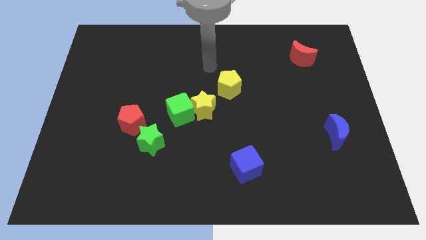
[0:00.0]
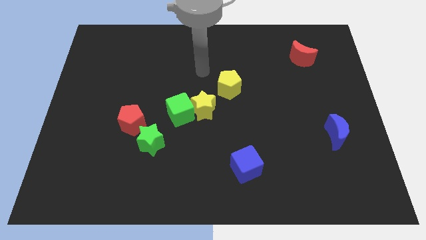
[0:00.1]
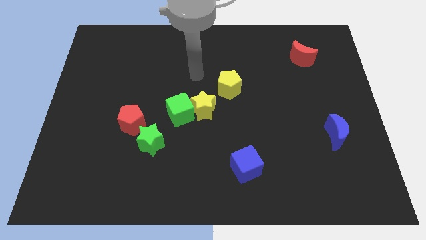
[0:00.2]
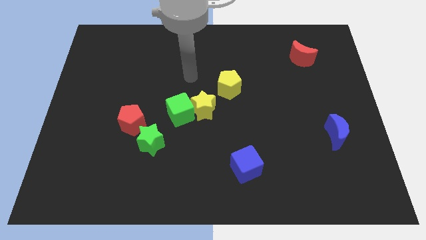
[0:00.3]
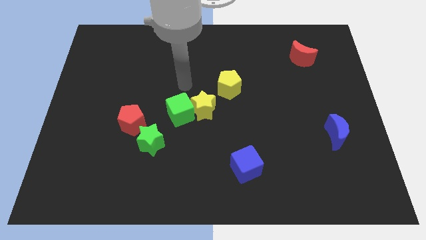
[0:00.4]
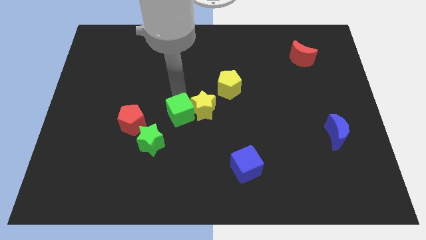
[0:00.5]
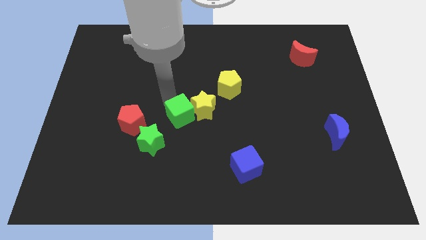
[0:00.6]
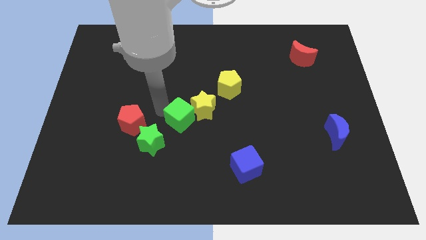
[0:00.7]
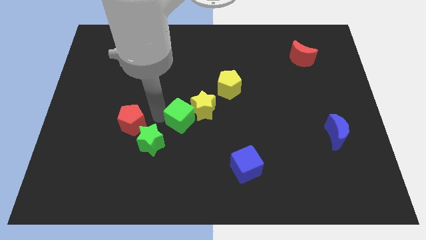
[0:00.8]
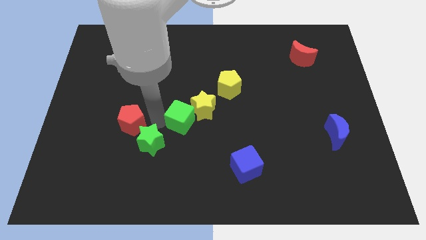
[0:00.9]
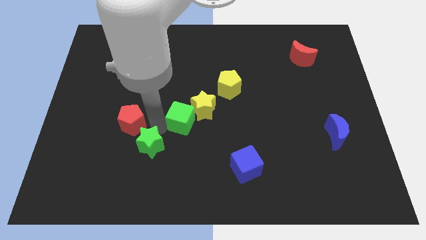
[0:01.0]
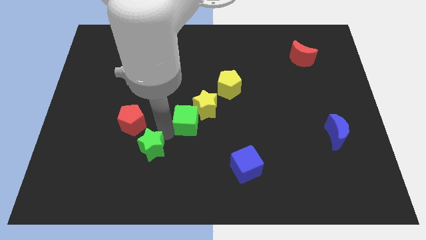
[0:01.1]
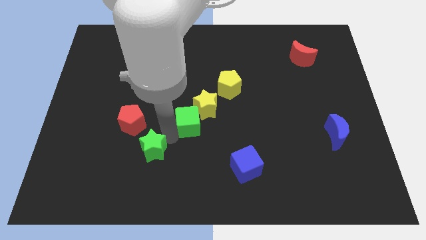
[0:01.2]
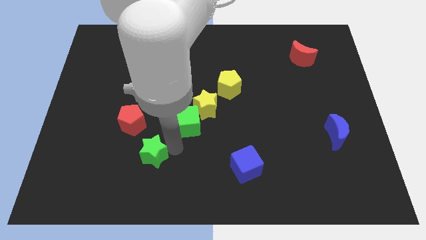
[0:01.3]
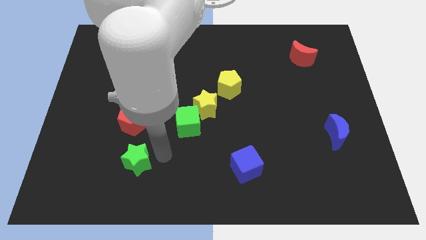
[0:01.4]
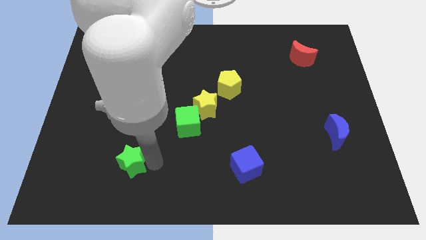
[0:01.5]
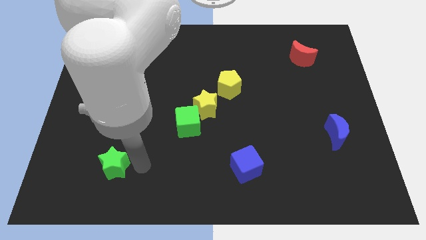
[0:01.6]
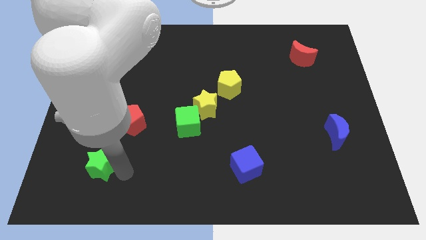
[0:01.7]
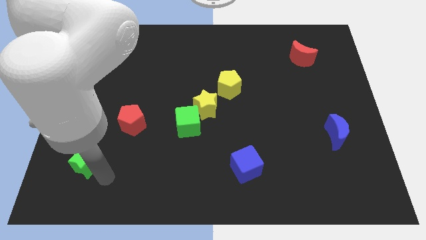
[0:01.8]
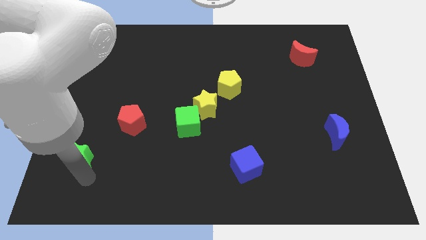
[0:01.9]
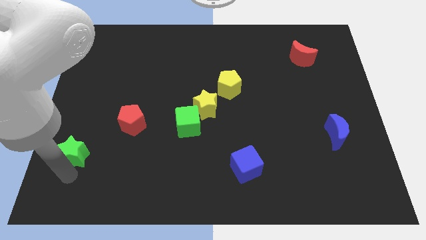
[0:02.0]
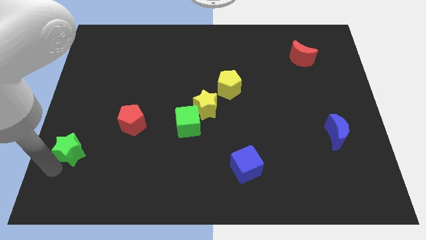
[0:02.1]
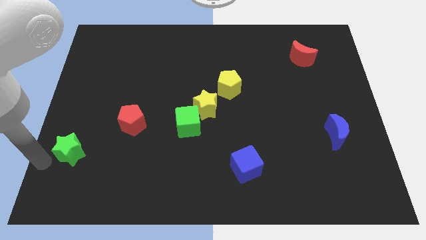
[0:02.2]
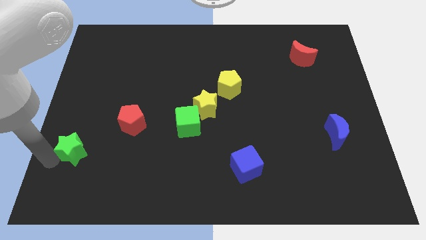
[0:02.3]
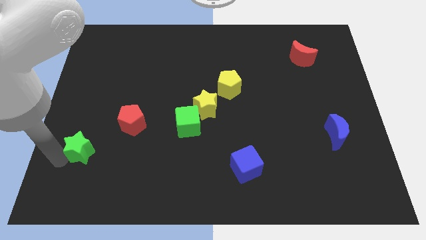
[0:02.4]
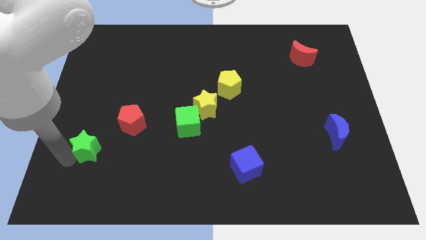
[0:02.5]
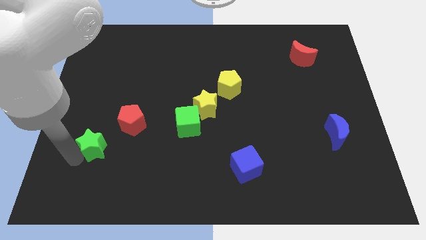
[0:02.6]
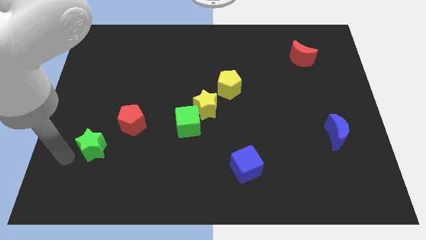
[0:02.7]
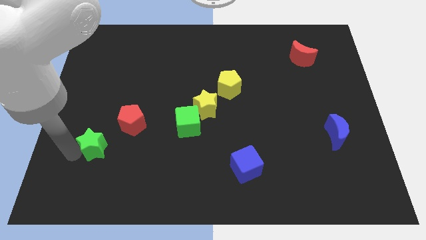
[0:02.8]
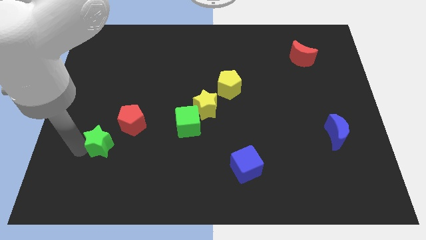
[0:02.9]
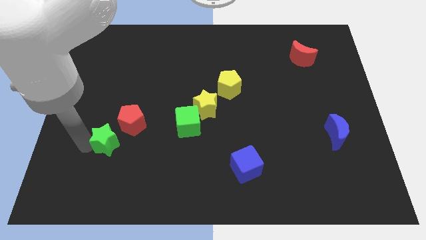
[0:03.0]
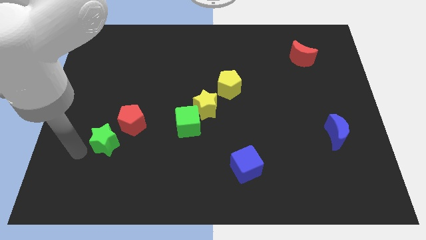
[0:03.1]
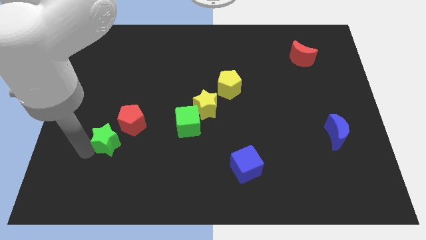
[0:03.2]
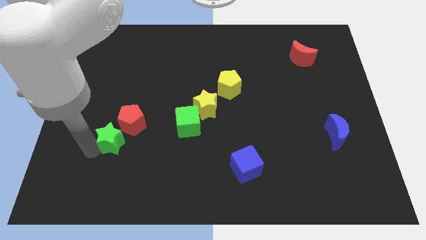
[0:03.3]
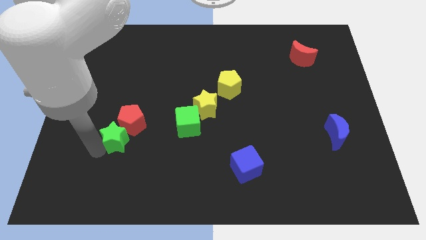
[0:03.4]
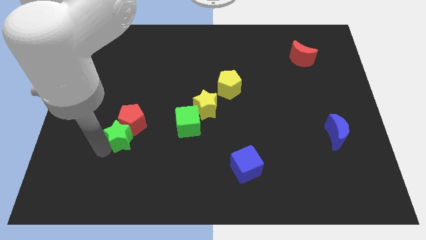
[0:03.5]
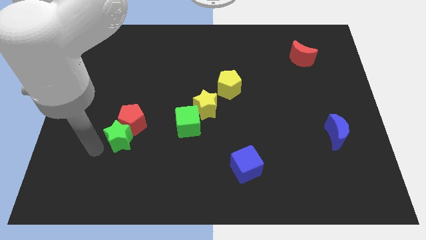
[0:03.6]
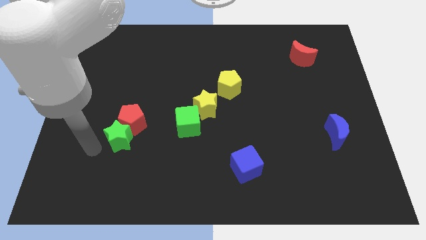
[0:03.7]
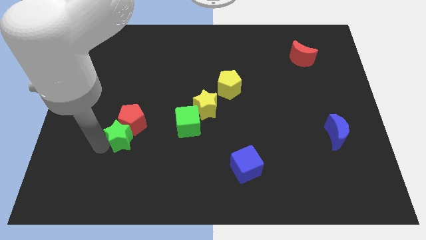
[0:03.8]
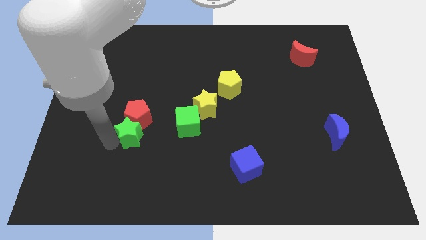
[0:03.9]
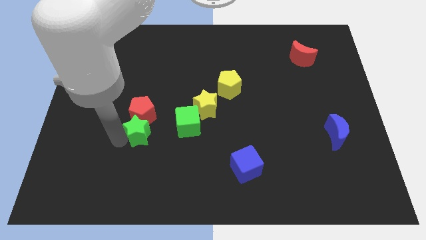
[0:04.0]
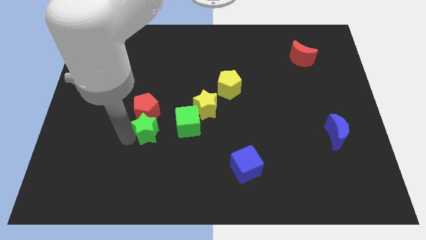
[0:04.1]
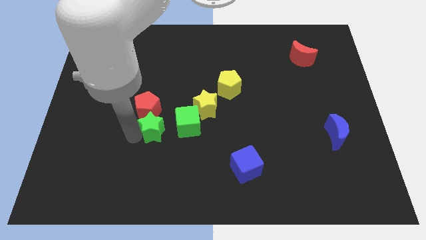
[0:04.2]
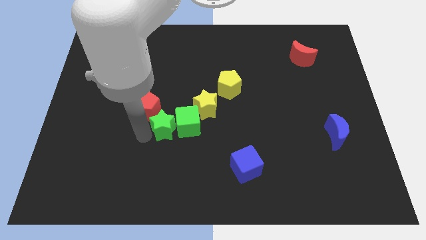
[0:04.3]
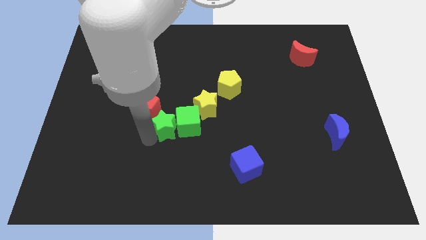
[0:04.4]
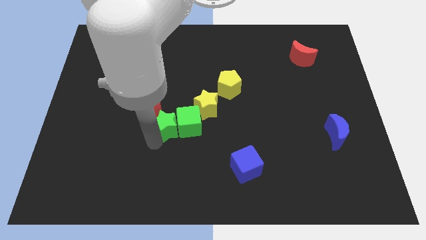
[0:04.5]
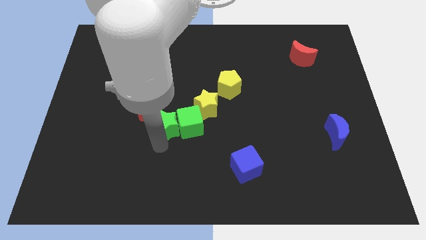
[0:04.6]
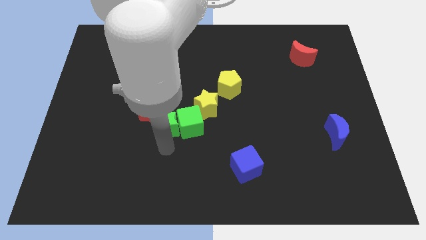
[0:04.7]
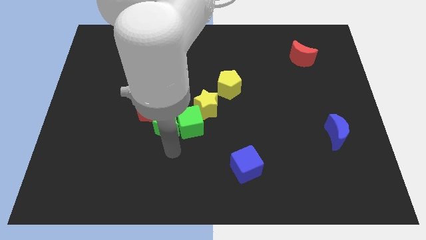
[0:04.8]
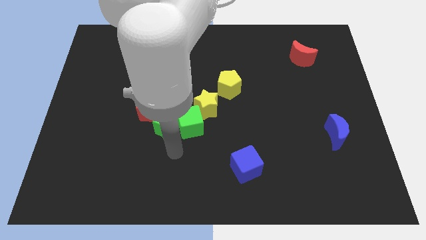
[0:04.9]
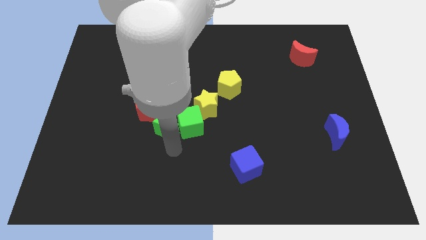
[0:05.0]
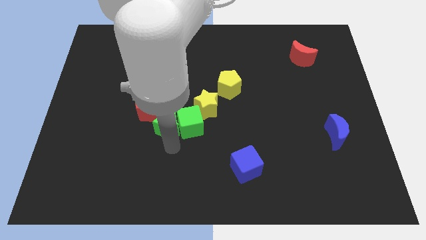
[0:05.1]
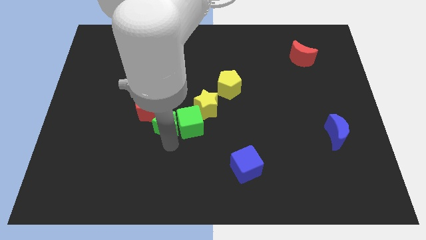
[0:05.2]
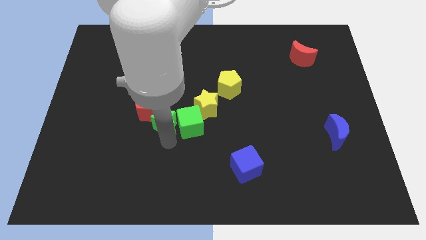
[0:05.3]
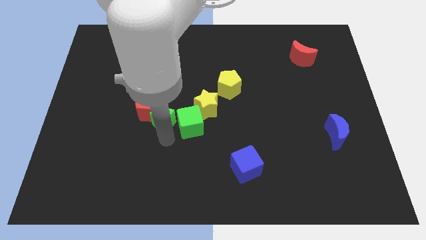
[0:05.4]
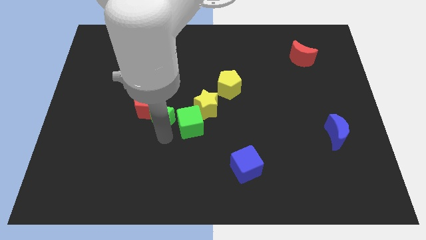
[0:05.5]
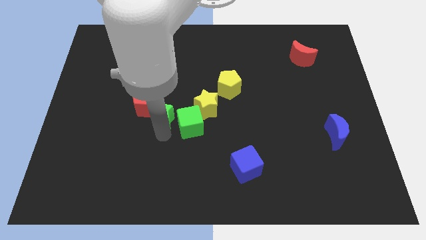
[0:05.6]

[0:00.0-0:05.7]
push the green star upwards a bit

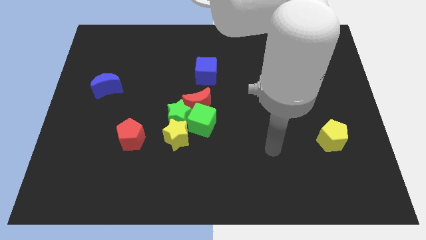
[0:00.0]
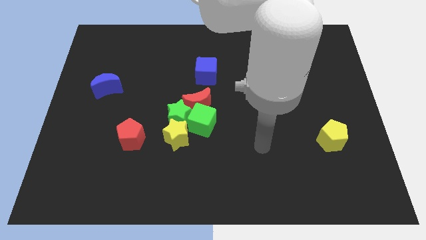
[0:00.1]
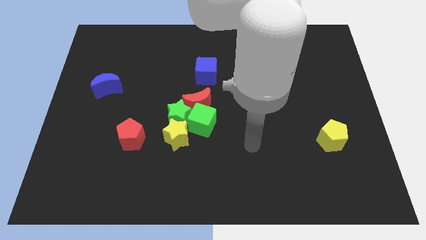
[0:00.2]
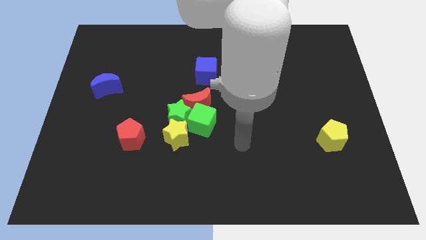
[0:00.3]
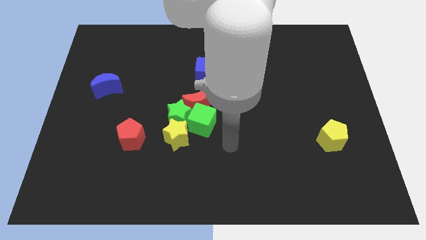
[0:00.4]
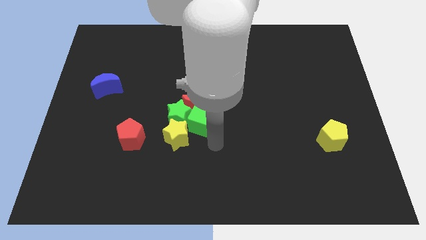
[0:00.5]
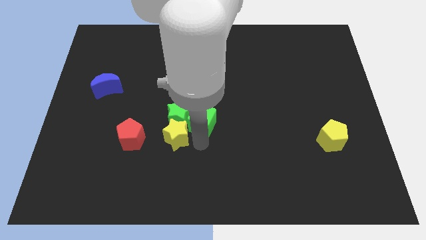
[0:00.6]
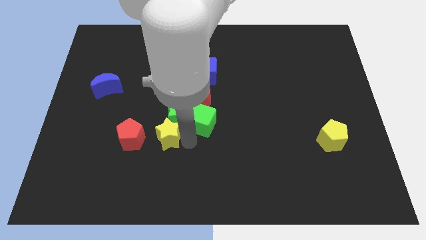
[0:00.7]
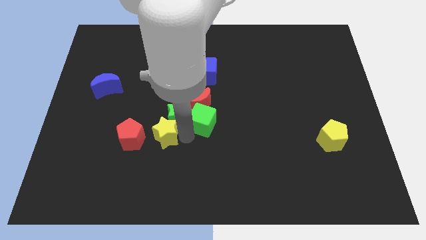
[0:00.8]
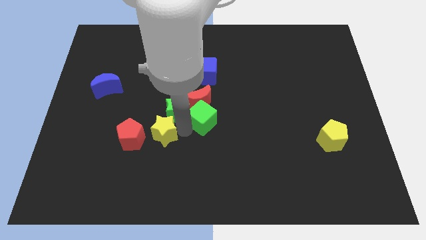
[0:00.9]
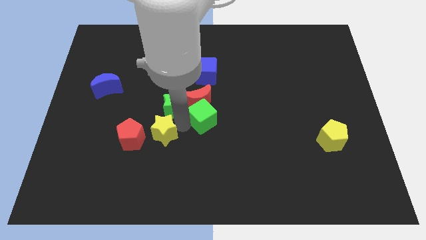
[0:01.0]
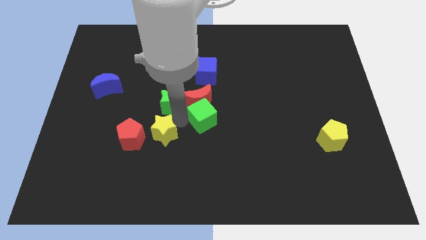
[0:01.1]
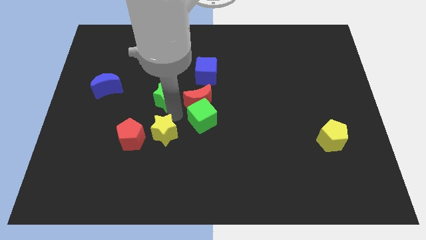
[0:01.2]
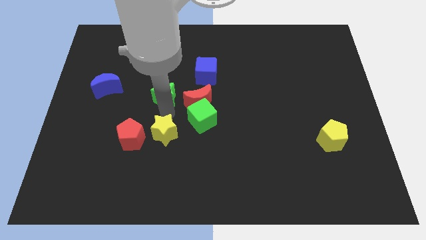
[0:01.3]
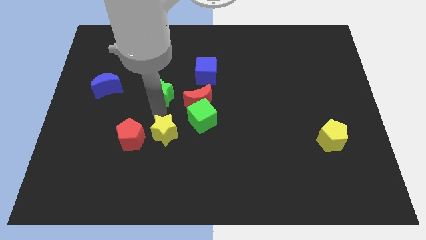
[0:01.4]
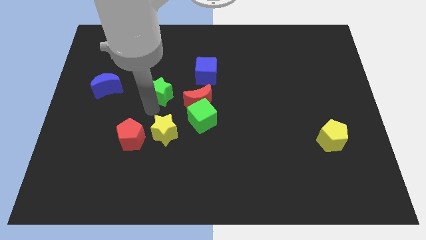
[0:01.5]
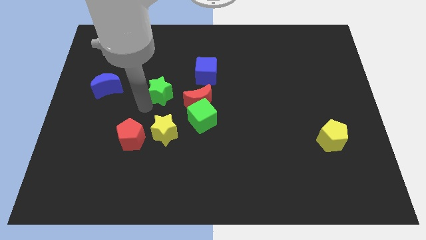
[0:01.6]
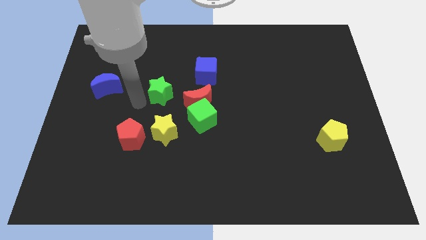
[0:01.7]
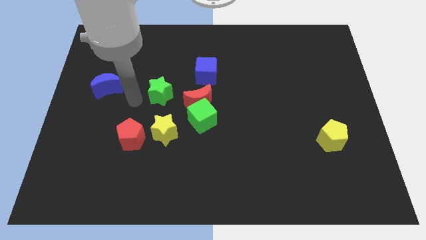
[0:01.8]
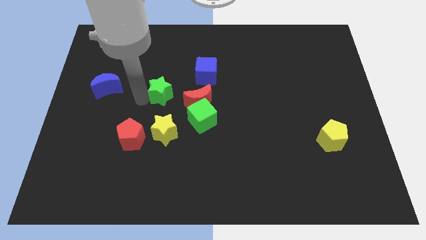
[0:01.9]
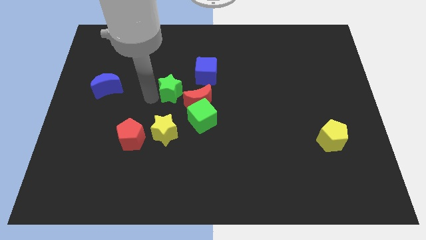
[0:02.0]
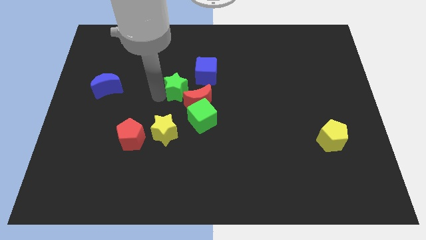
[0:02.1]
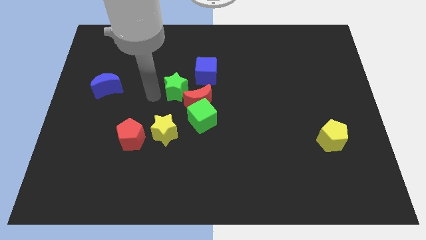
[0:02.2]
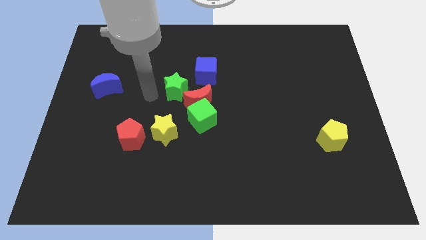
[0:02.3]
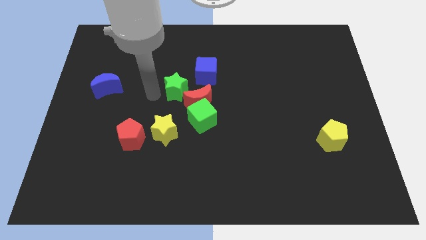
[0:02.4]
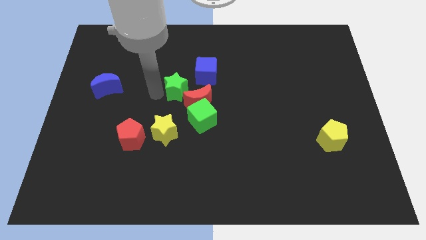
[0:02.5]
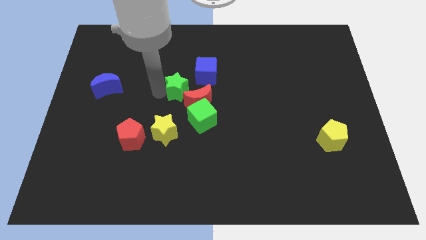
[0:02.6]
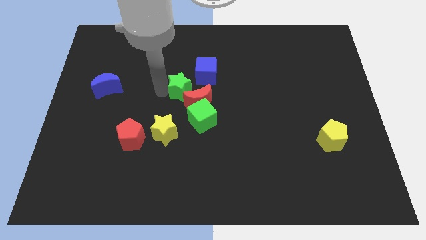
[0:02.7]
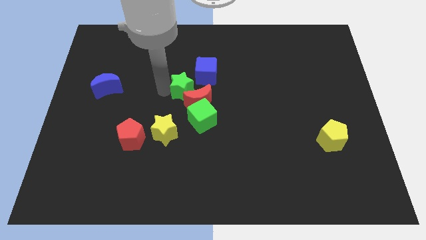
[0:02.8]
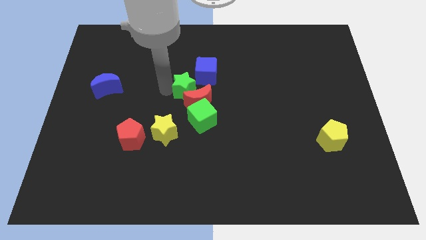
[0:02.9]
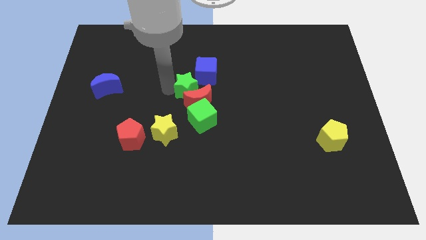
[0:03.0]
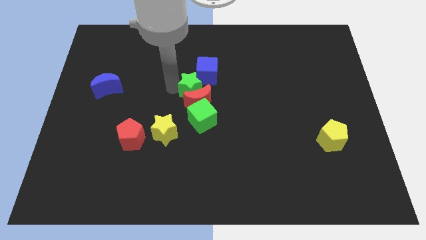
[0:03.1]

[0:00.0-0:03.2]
move the green star slightly up and then to the right
